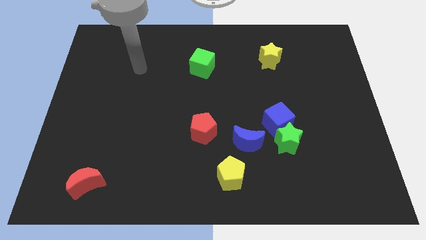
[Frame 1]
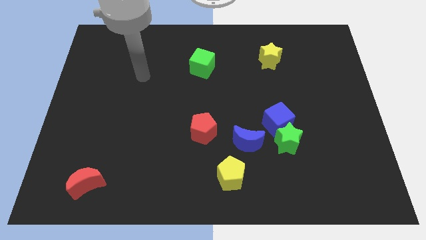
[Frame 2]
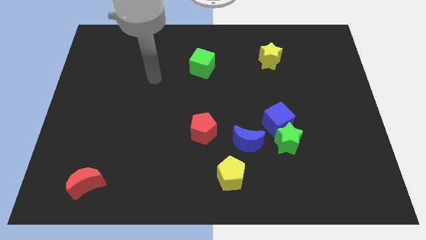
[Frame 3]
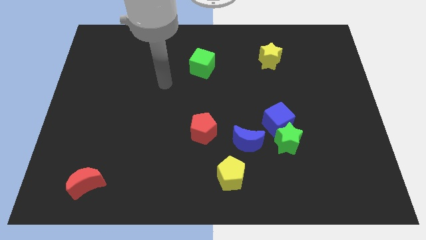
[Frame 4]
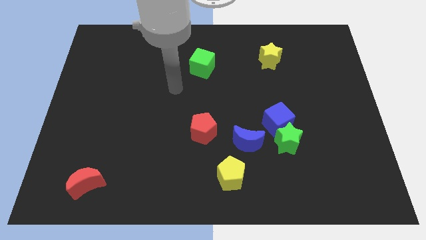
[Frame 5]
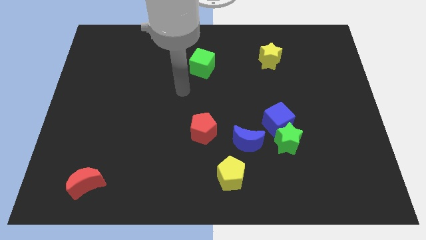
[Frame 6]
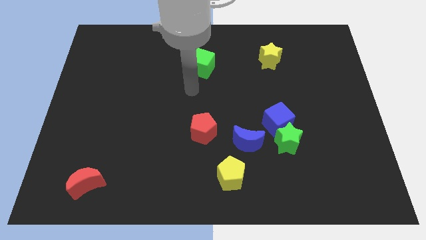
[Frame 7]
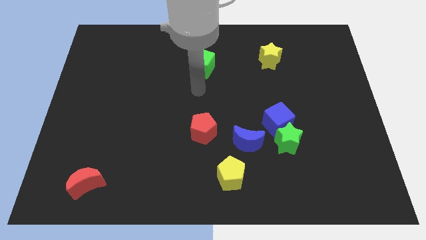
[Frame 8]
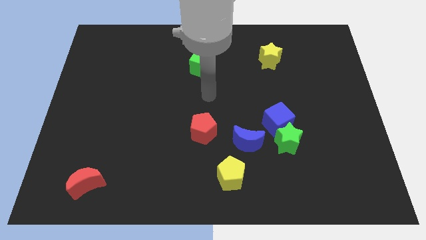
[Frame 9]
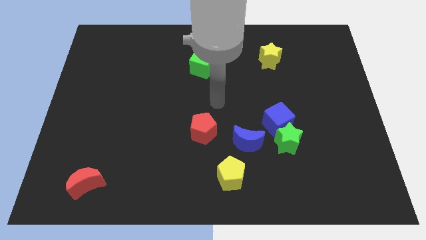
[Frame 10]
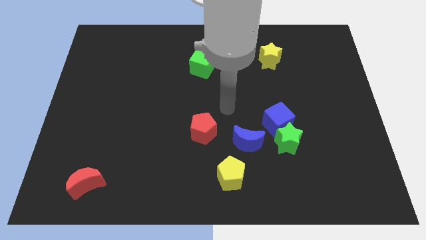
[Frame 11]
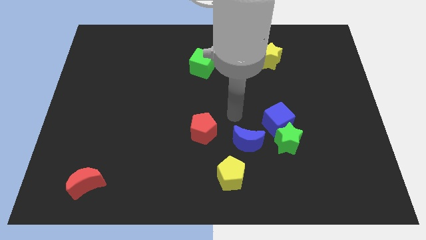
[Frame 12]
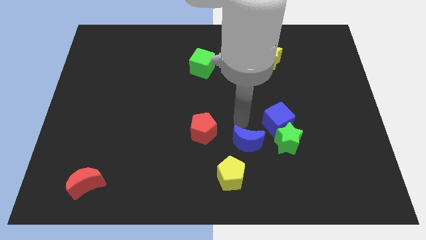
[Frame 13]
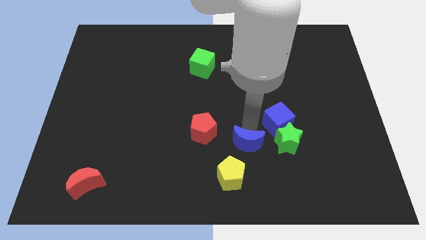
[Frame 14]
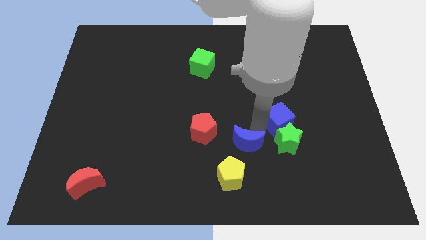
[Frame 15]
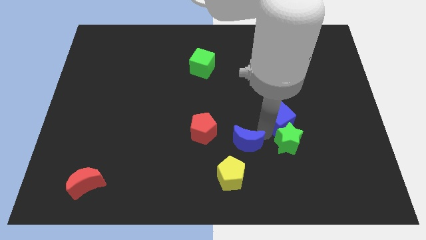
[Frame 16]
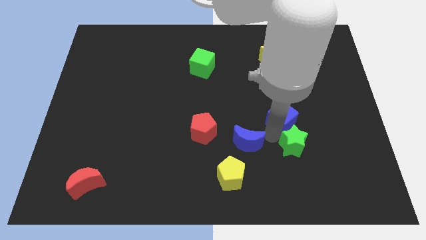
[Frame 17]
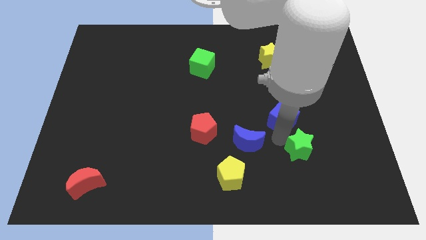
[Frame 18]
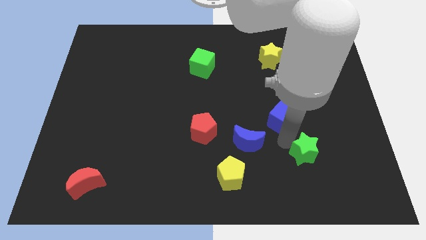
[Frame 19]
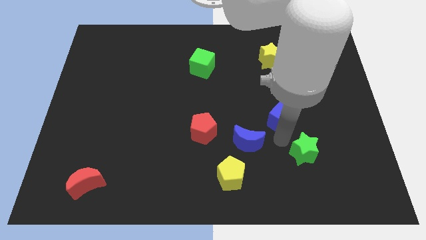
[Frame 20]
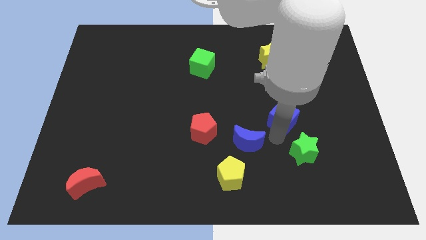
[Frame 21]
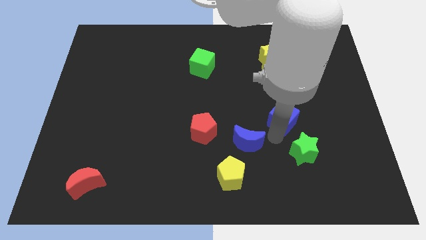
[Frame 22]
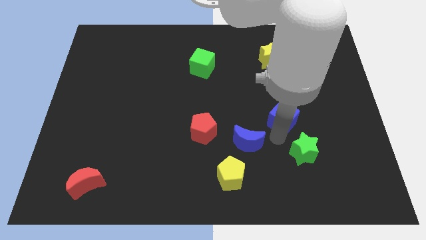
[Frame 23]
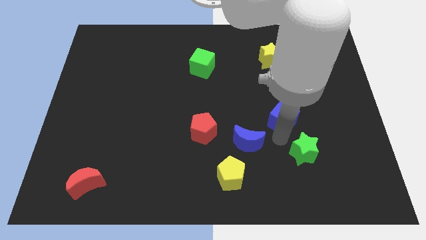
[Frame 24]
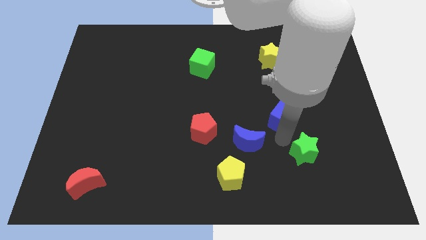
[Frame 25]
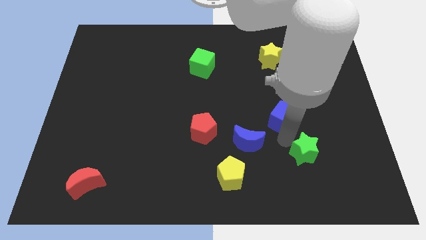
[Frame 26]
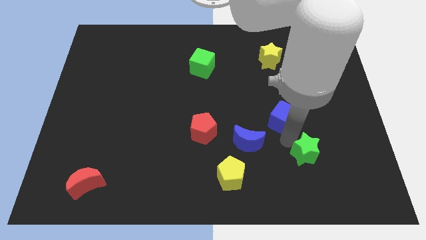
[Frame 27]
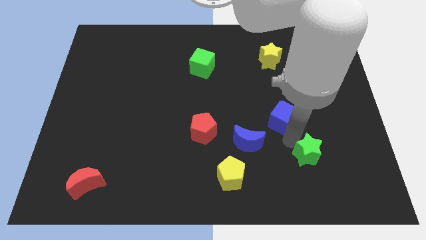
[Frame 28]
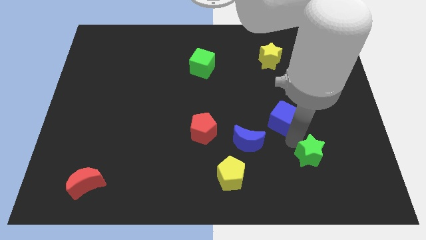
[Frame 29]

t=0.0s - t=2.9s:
pull the green star apart from the blue cube and blue moon

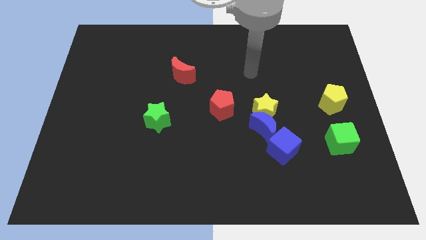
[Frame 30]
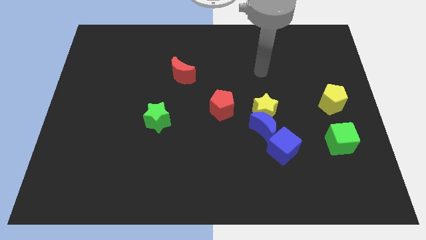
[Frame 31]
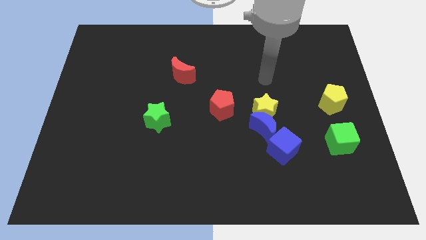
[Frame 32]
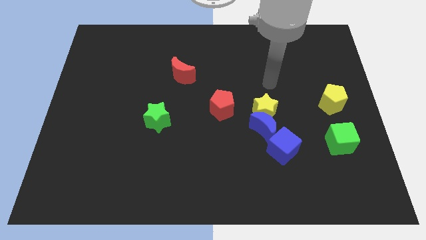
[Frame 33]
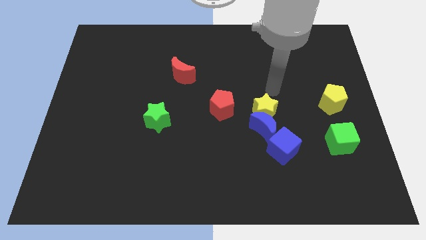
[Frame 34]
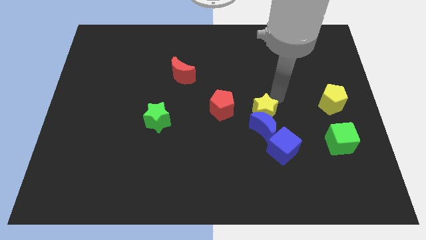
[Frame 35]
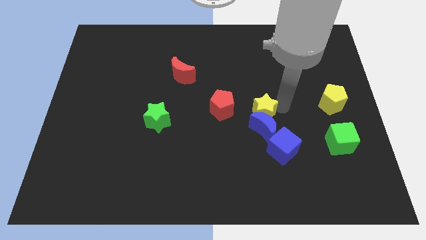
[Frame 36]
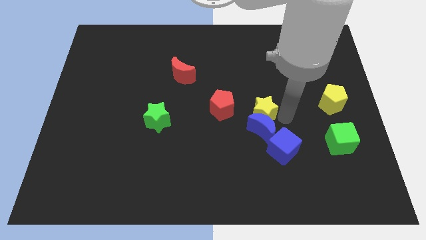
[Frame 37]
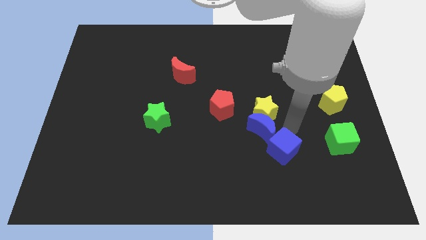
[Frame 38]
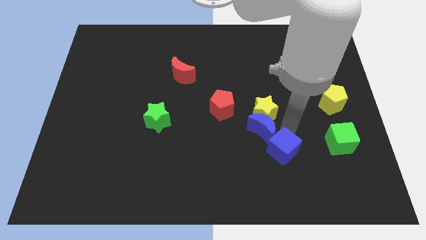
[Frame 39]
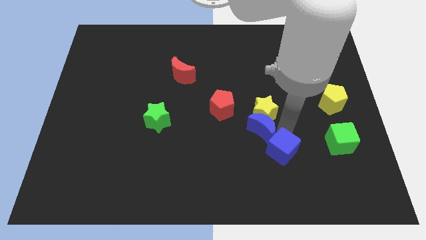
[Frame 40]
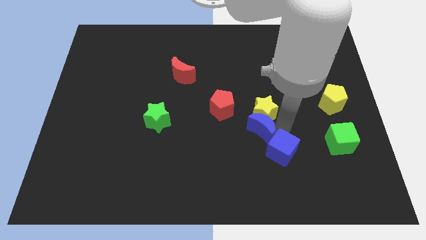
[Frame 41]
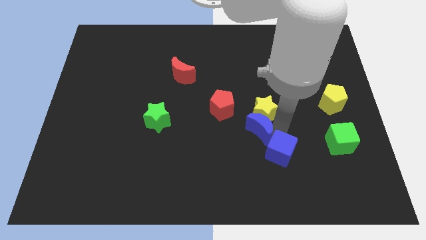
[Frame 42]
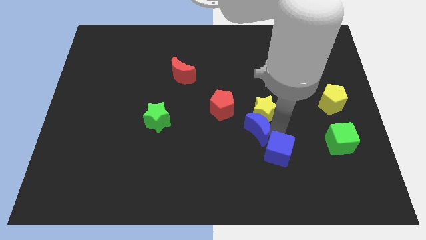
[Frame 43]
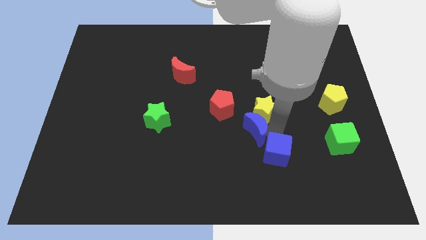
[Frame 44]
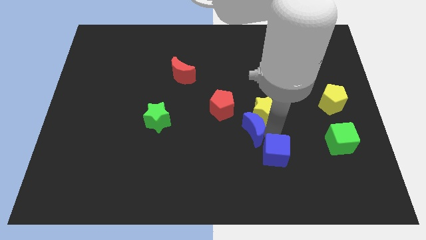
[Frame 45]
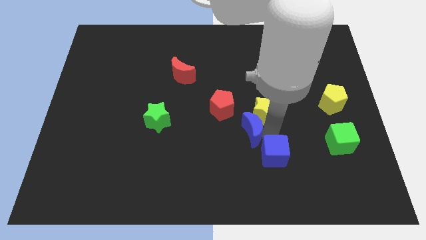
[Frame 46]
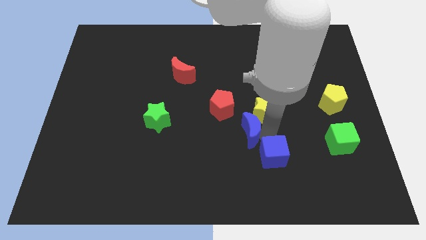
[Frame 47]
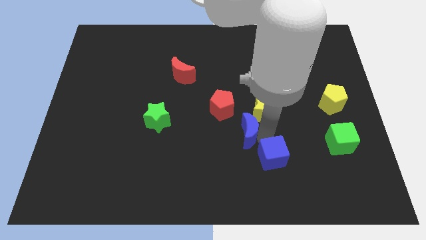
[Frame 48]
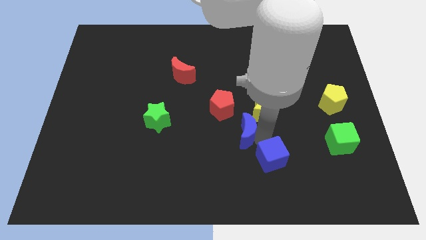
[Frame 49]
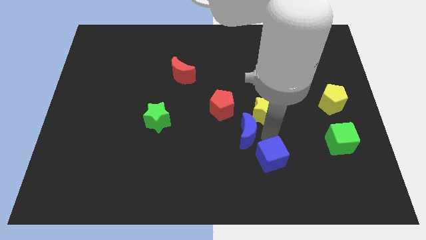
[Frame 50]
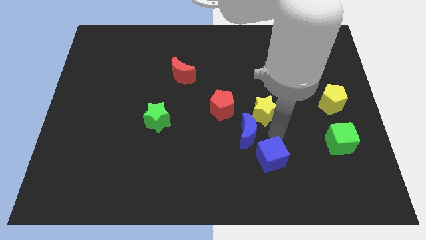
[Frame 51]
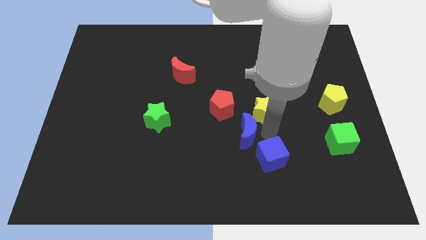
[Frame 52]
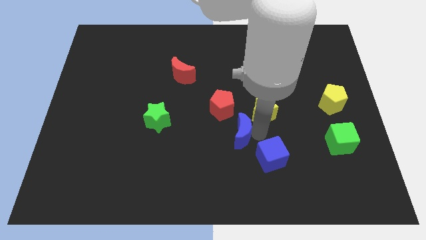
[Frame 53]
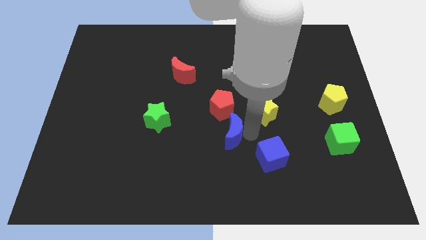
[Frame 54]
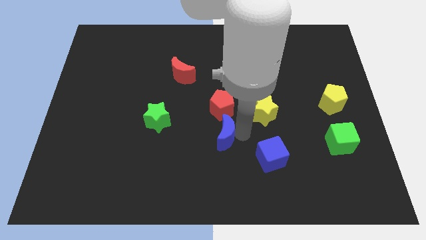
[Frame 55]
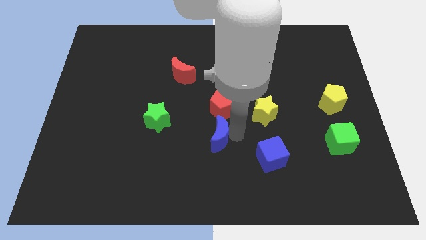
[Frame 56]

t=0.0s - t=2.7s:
pull the blue moon apart from the yellow star and blue cube

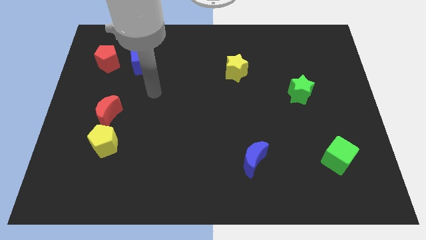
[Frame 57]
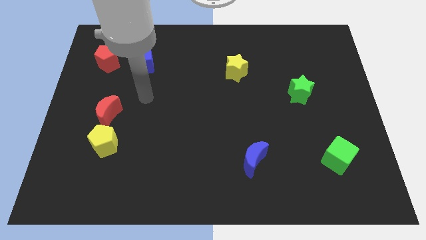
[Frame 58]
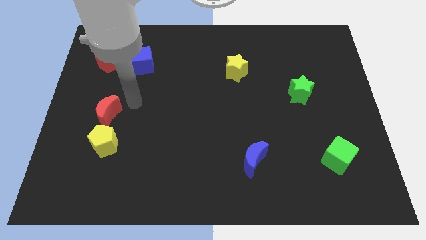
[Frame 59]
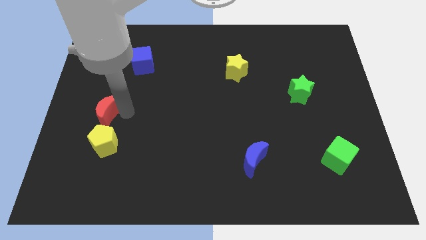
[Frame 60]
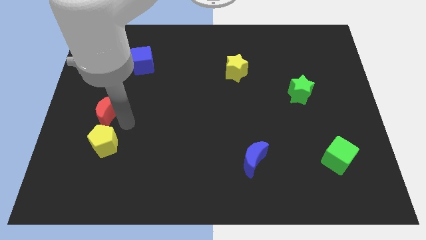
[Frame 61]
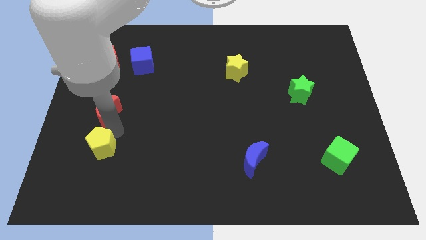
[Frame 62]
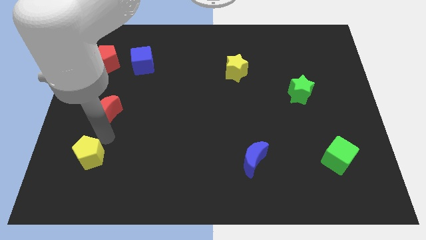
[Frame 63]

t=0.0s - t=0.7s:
separate the red moon from the yellow pentagon

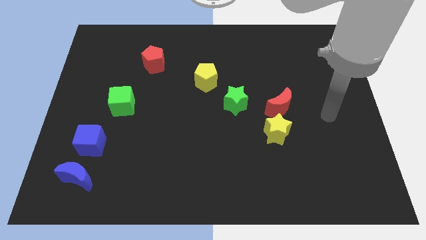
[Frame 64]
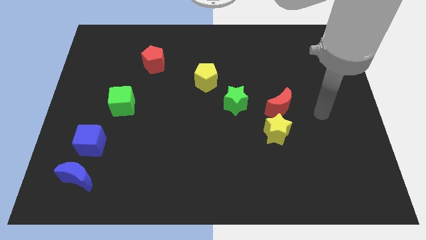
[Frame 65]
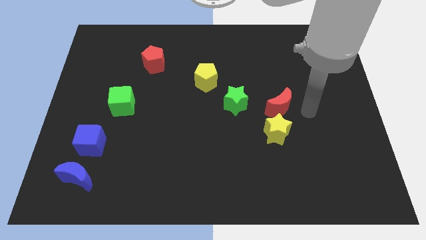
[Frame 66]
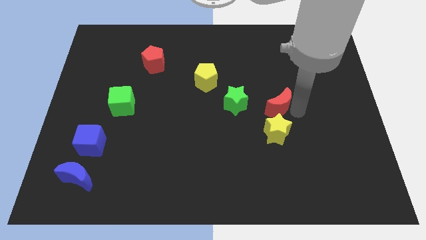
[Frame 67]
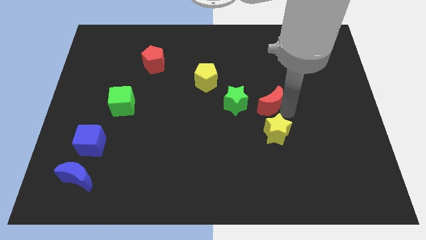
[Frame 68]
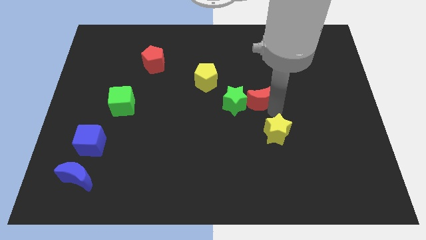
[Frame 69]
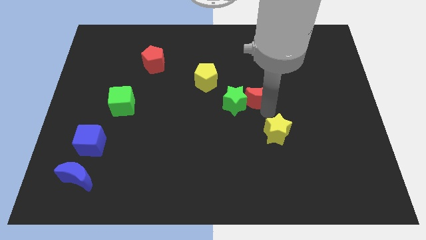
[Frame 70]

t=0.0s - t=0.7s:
move the yellow star away from the red moon

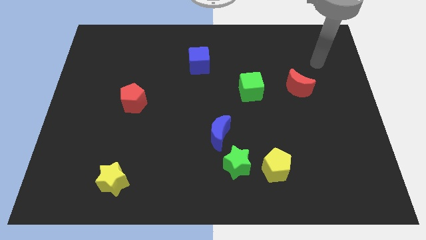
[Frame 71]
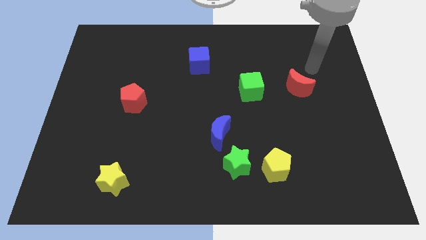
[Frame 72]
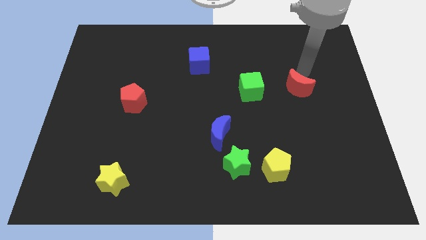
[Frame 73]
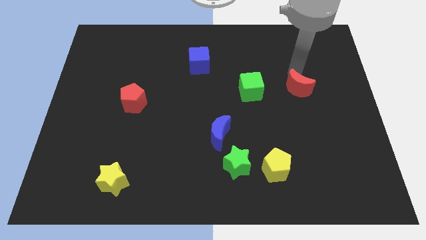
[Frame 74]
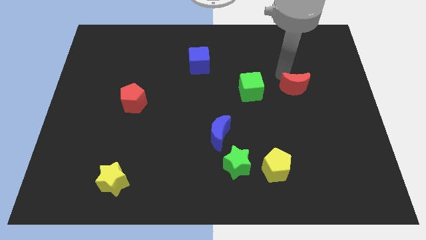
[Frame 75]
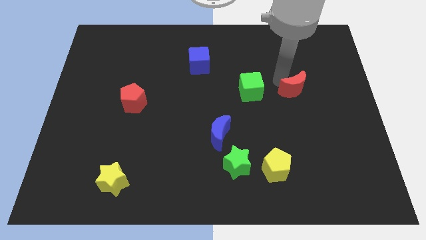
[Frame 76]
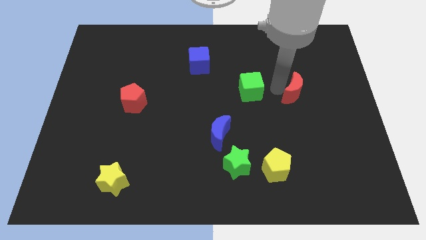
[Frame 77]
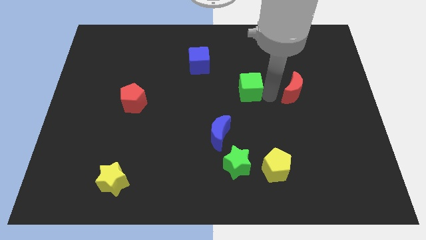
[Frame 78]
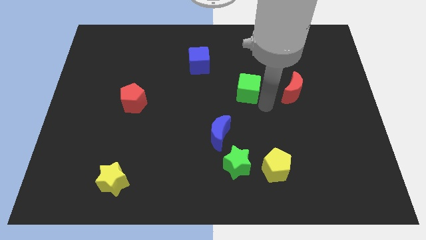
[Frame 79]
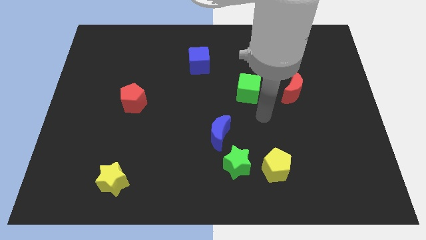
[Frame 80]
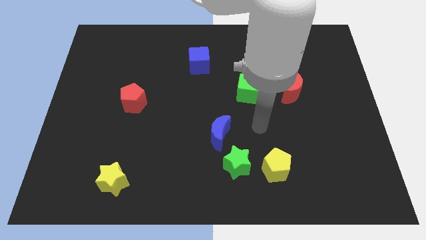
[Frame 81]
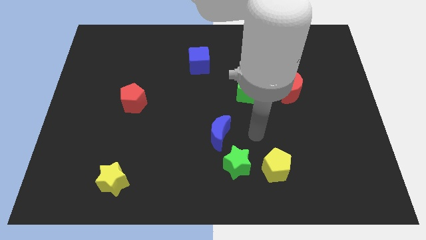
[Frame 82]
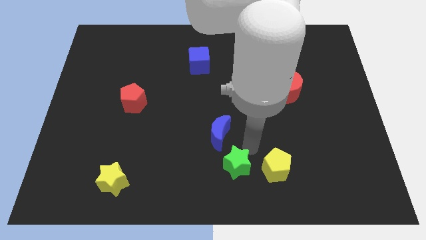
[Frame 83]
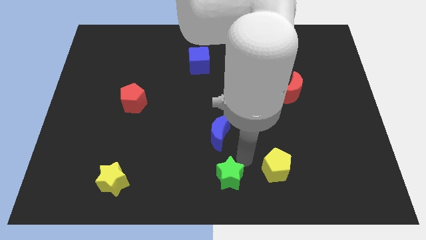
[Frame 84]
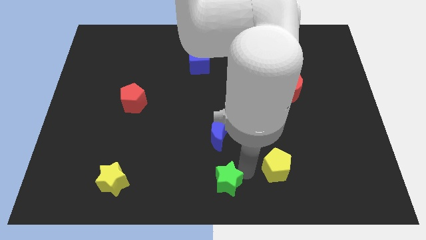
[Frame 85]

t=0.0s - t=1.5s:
separate the yellow pentagon from the green star

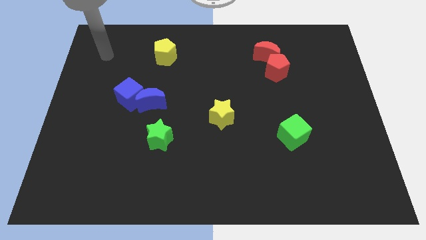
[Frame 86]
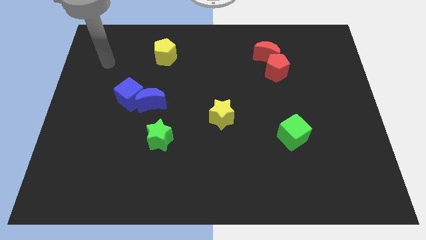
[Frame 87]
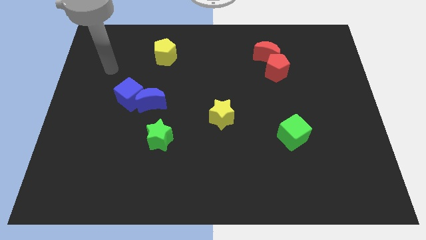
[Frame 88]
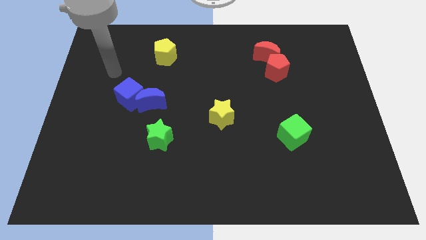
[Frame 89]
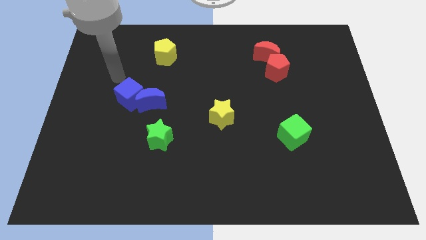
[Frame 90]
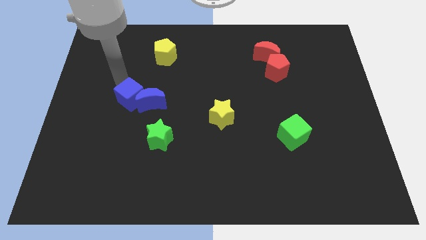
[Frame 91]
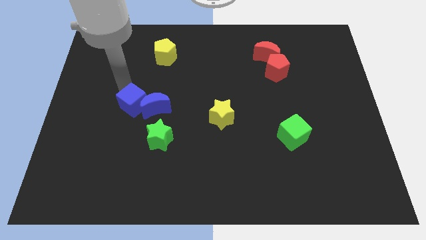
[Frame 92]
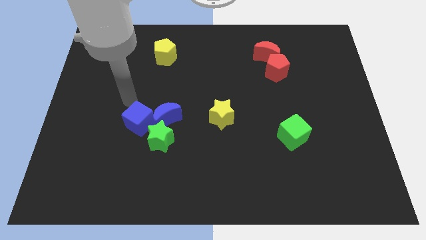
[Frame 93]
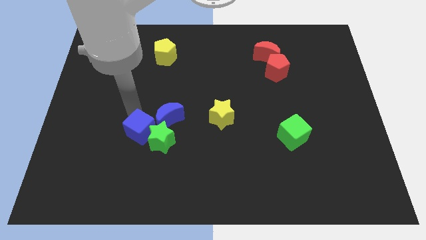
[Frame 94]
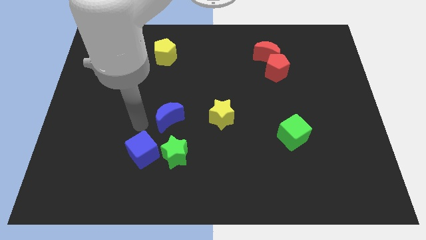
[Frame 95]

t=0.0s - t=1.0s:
pull the blue moon apart from the blue cube
